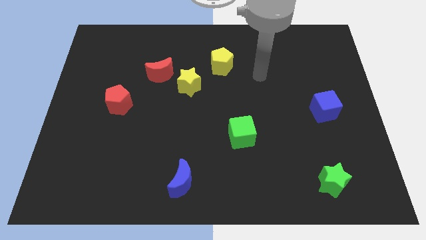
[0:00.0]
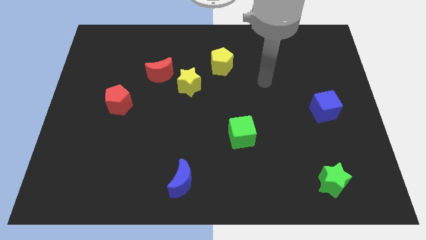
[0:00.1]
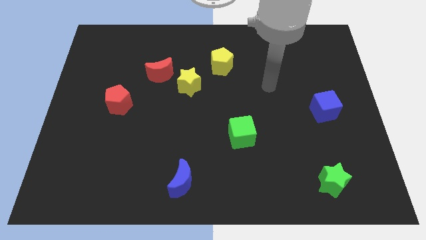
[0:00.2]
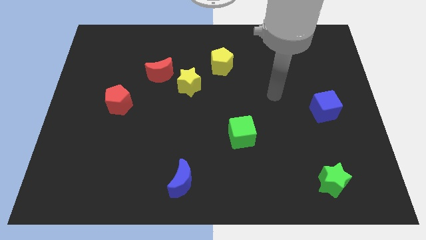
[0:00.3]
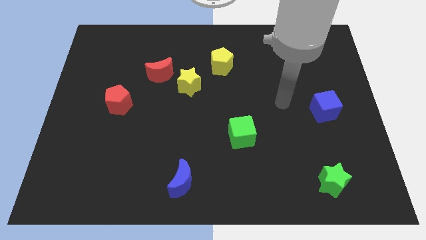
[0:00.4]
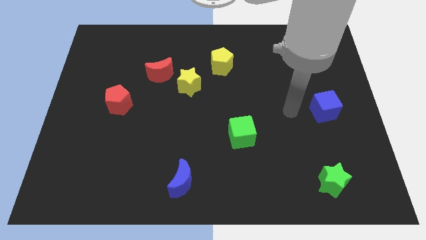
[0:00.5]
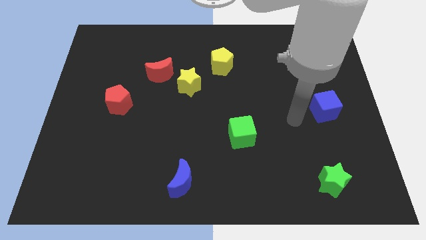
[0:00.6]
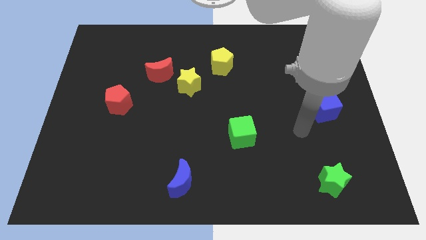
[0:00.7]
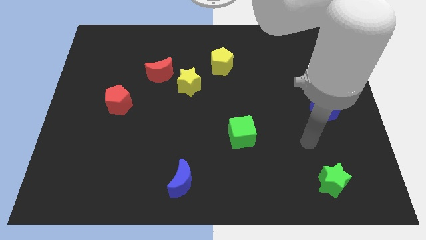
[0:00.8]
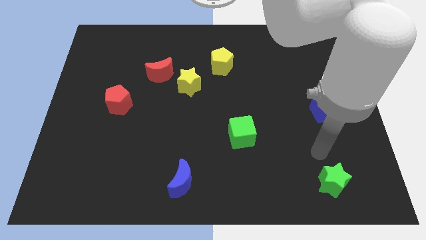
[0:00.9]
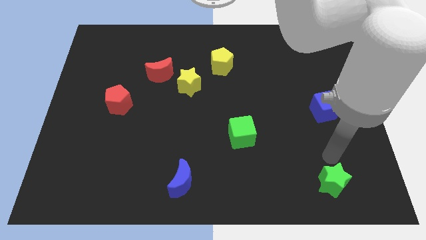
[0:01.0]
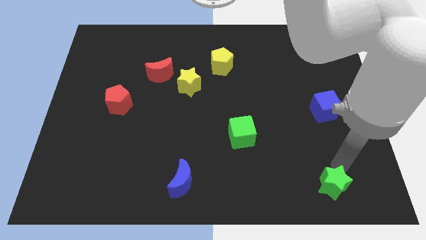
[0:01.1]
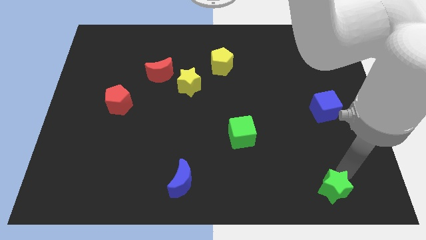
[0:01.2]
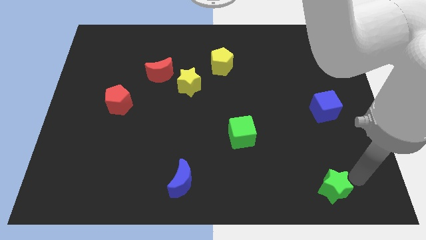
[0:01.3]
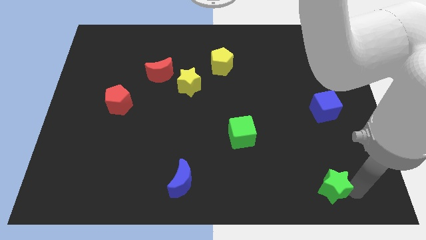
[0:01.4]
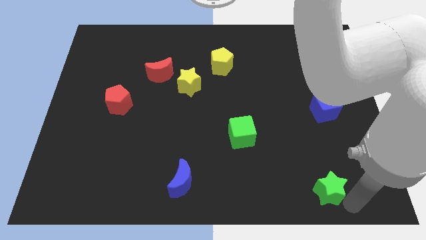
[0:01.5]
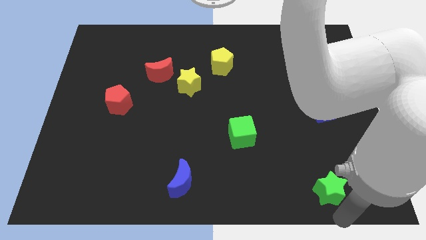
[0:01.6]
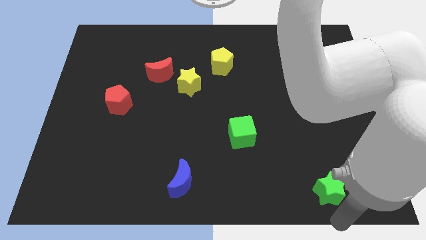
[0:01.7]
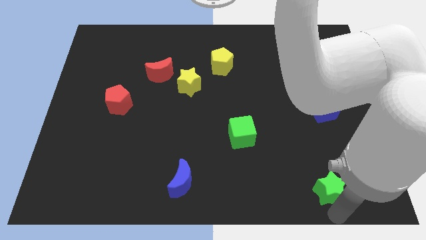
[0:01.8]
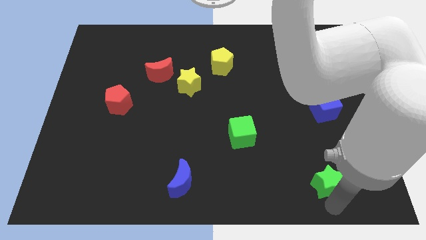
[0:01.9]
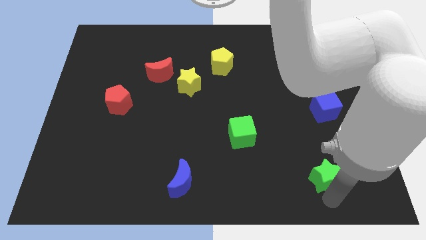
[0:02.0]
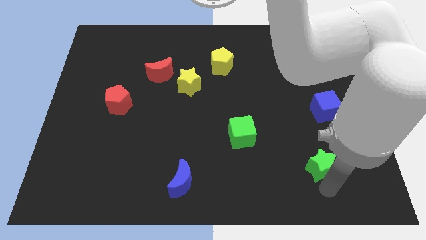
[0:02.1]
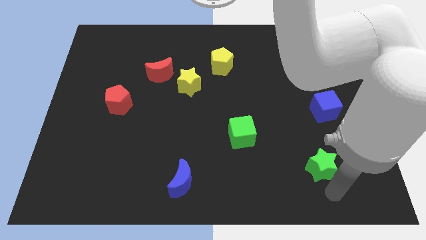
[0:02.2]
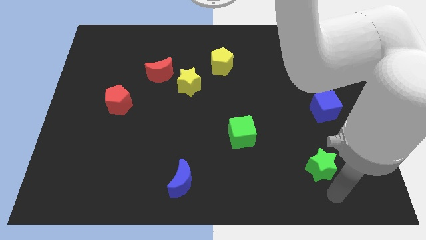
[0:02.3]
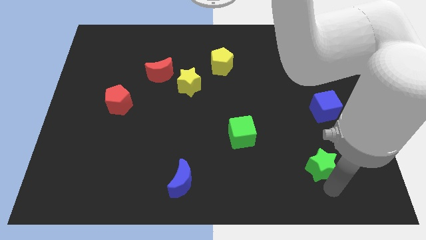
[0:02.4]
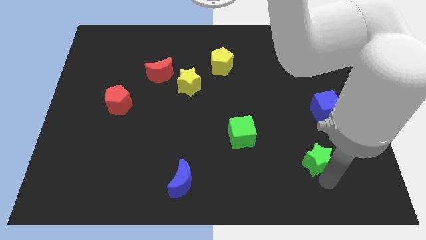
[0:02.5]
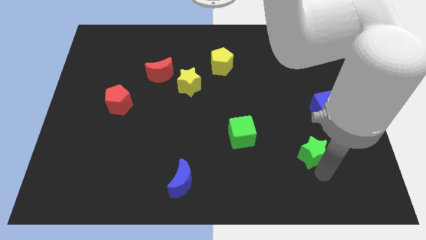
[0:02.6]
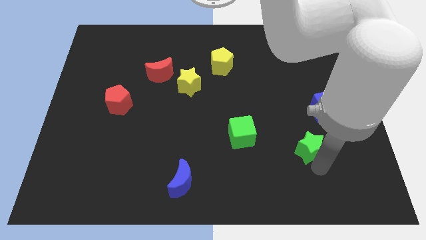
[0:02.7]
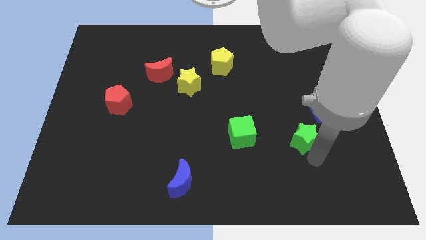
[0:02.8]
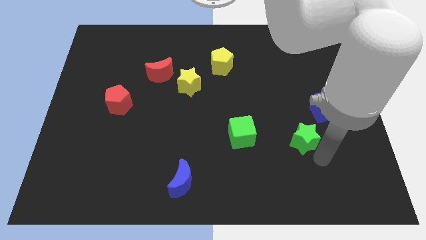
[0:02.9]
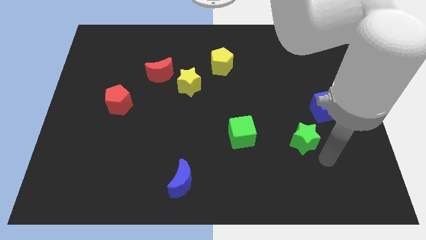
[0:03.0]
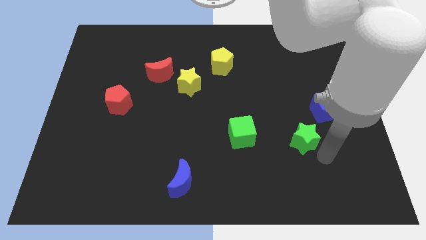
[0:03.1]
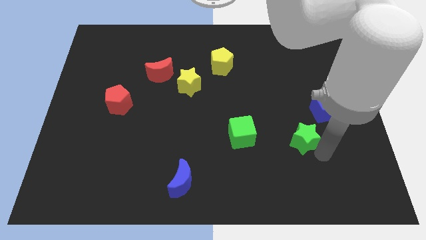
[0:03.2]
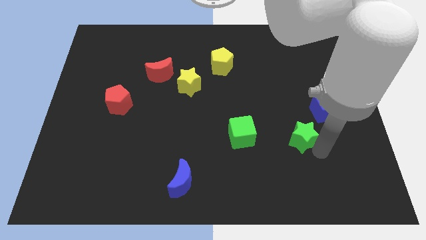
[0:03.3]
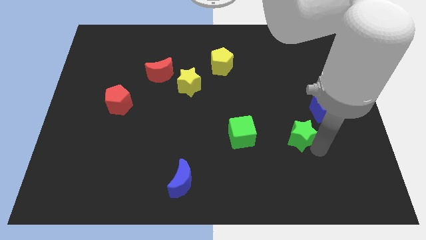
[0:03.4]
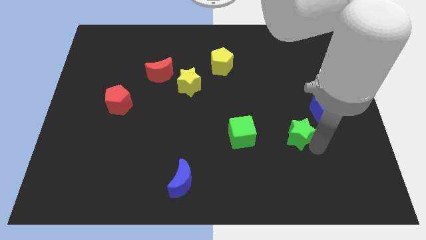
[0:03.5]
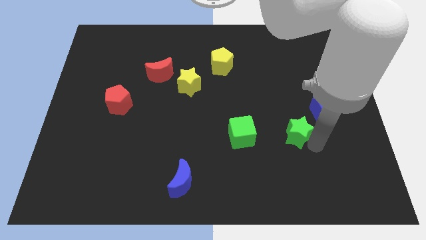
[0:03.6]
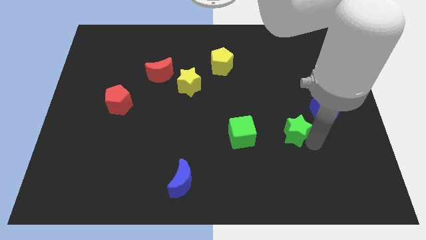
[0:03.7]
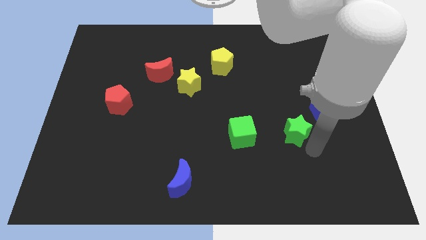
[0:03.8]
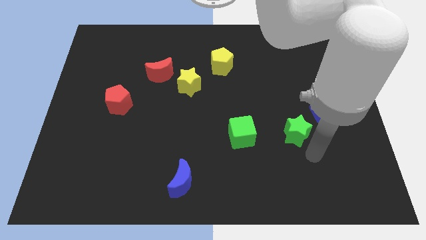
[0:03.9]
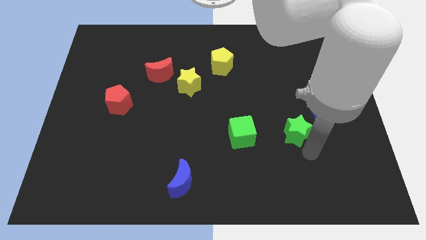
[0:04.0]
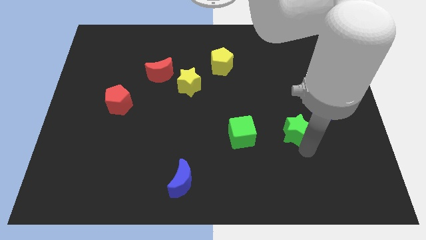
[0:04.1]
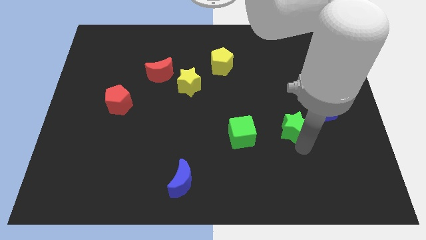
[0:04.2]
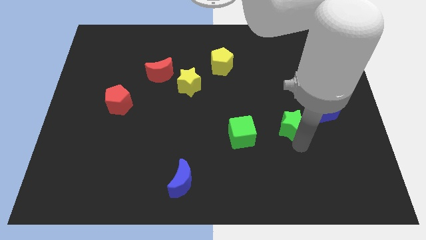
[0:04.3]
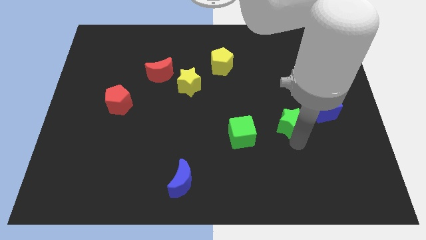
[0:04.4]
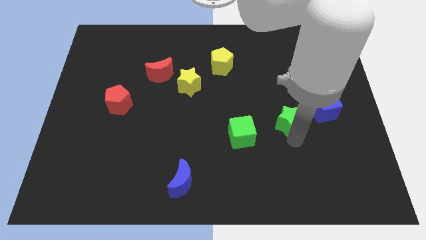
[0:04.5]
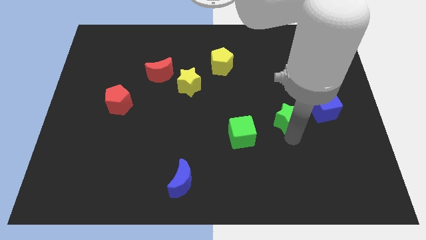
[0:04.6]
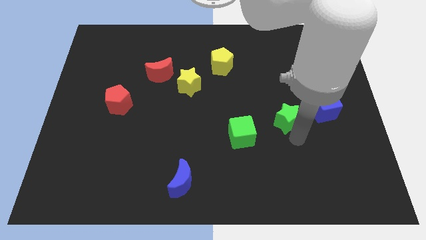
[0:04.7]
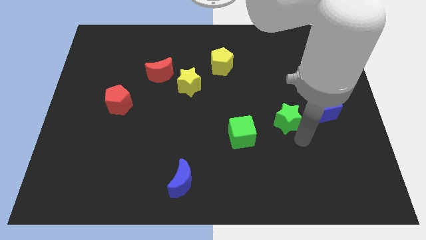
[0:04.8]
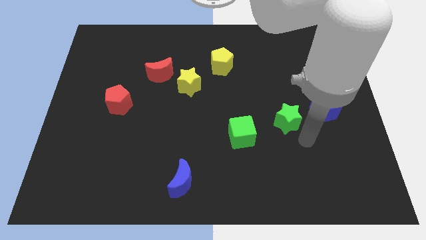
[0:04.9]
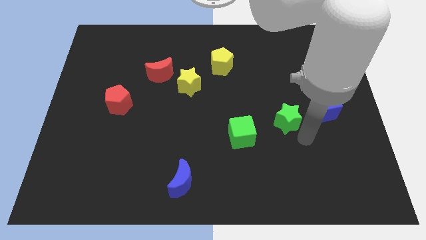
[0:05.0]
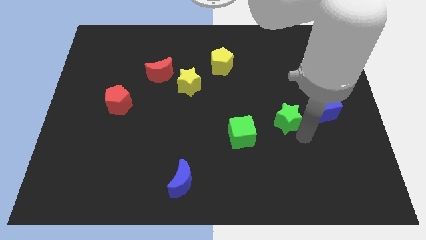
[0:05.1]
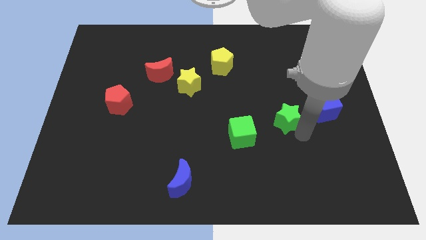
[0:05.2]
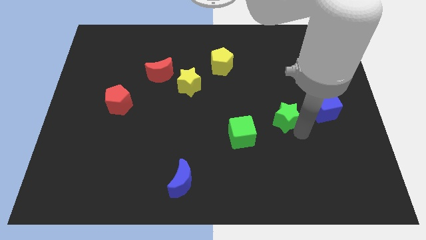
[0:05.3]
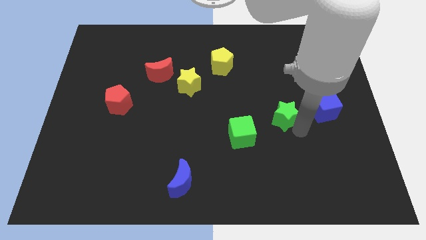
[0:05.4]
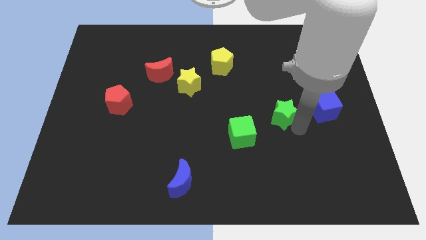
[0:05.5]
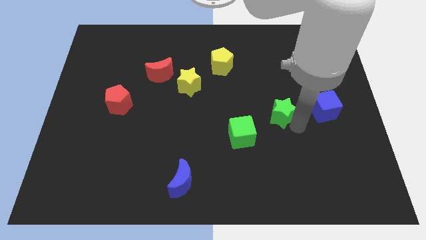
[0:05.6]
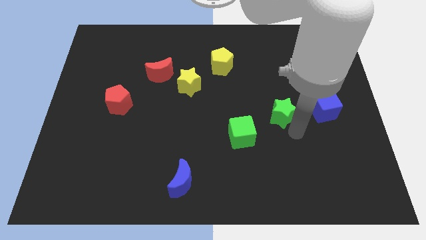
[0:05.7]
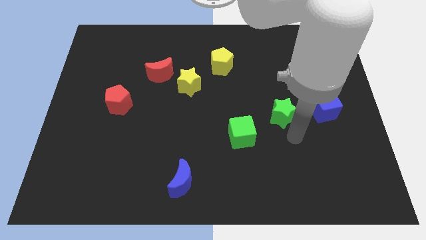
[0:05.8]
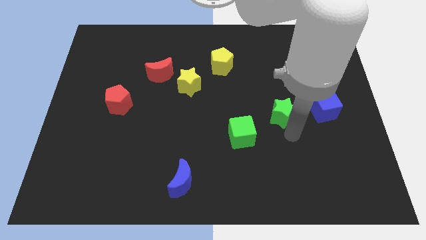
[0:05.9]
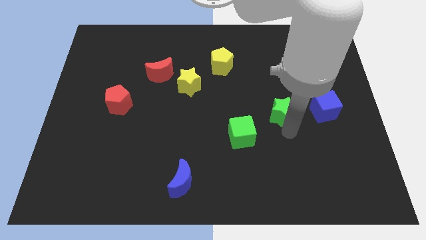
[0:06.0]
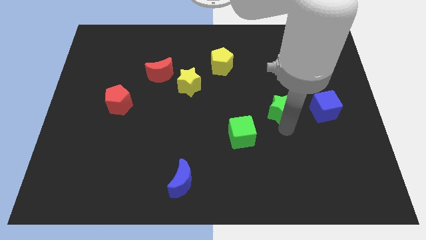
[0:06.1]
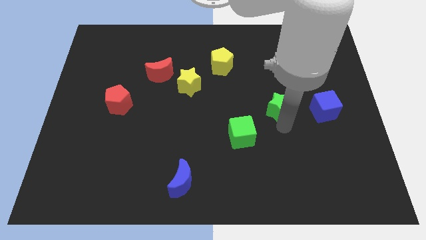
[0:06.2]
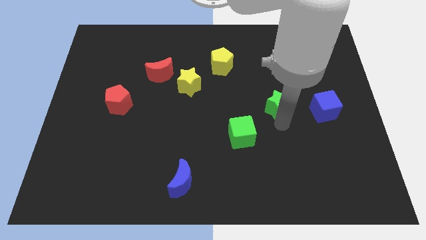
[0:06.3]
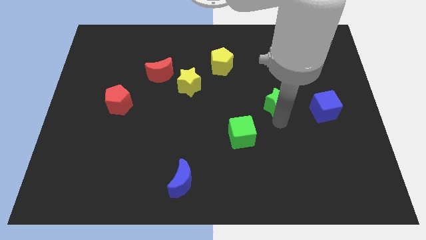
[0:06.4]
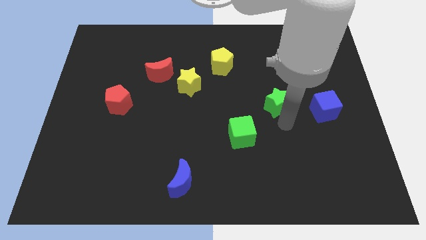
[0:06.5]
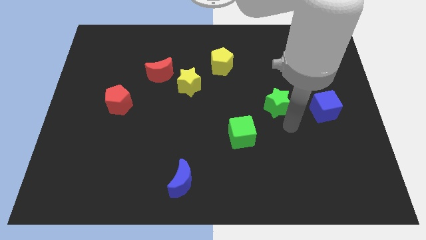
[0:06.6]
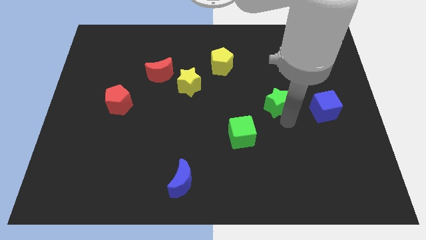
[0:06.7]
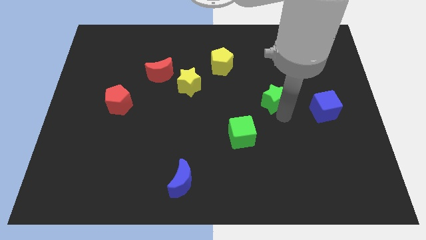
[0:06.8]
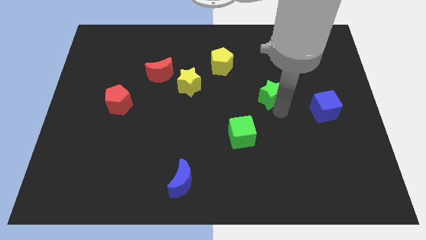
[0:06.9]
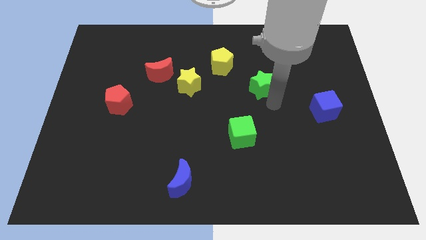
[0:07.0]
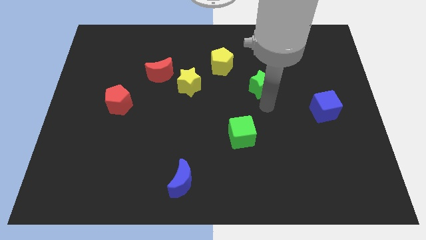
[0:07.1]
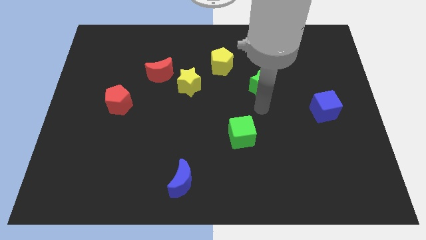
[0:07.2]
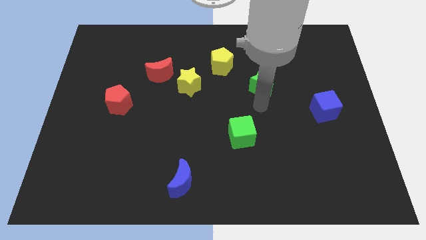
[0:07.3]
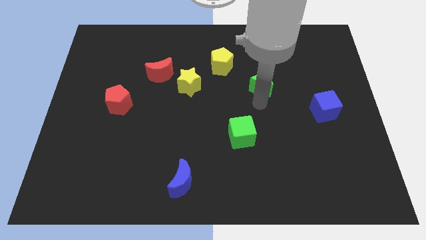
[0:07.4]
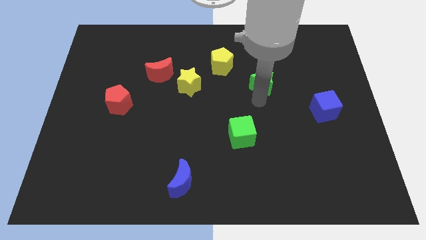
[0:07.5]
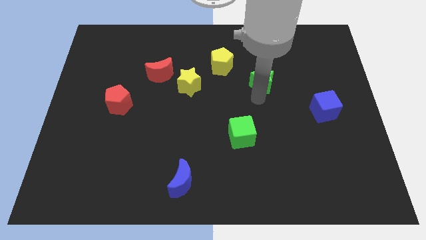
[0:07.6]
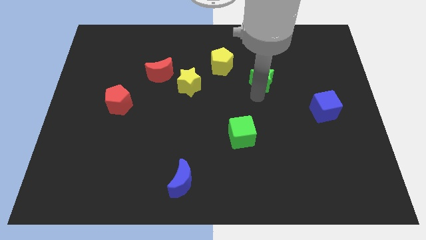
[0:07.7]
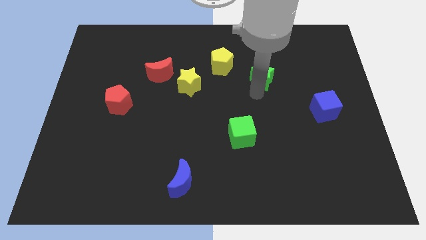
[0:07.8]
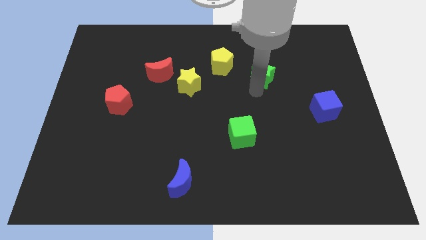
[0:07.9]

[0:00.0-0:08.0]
push the green star to the right side of the yellow pentagon
